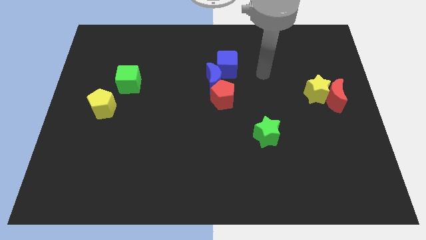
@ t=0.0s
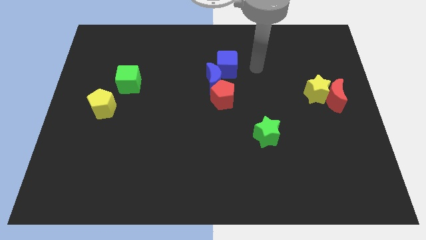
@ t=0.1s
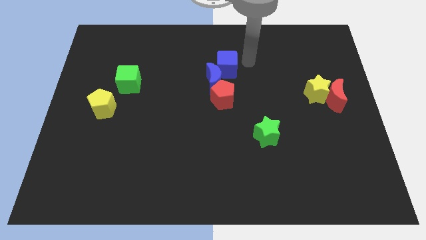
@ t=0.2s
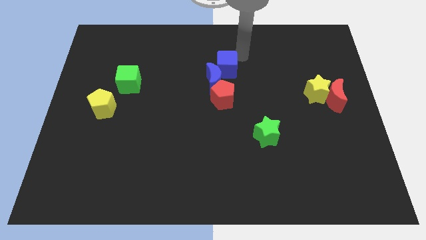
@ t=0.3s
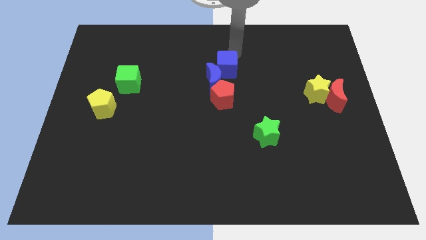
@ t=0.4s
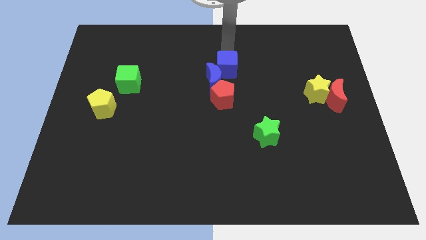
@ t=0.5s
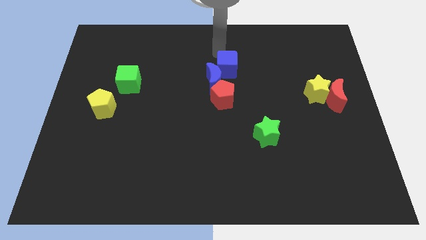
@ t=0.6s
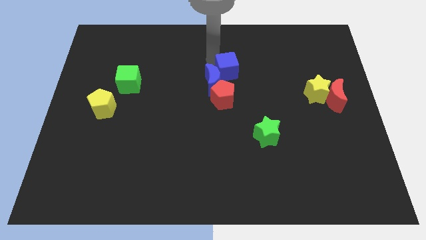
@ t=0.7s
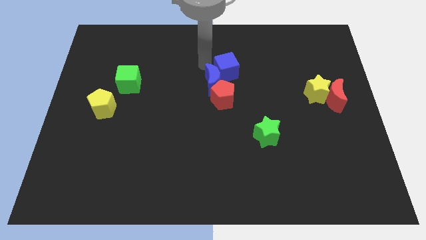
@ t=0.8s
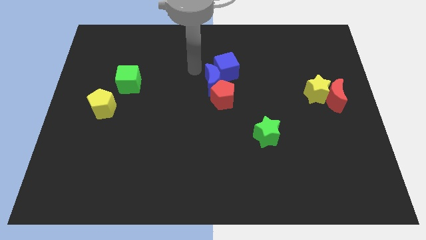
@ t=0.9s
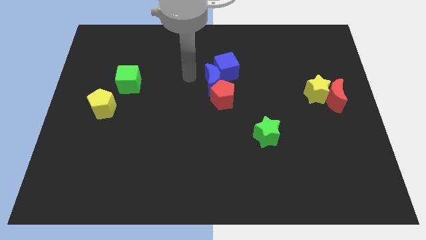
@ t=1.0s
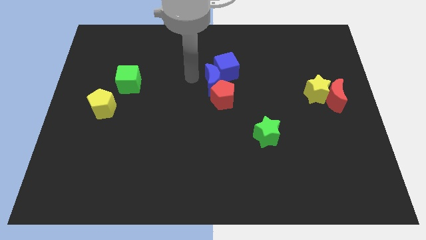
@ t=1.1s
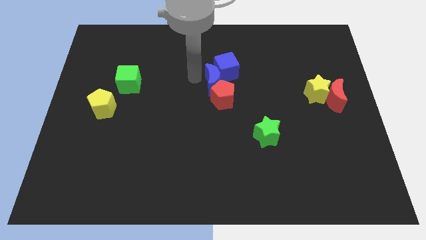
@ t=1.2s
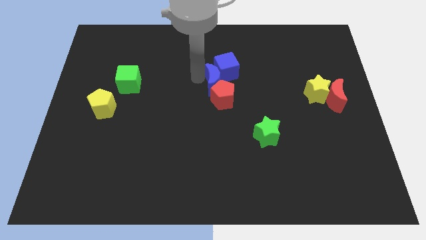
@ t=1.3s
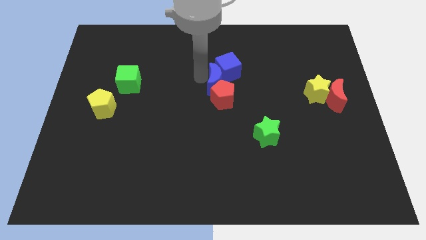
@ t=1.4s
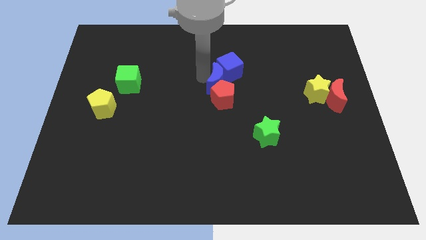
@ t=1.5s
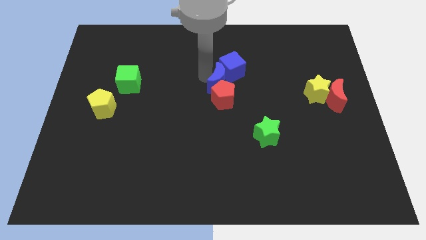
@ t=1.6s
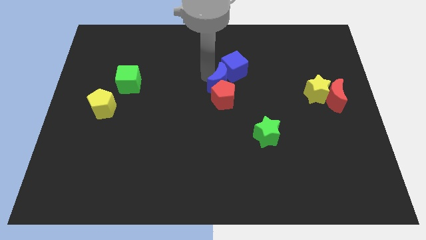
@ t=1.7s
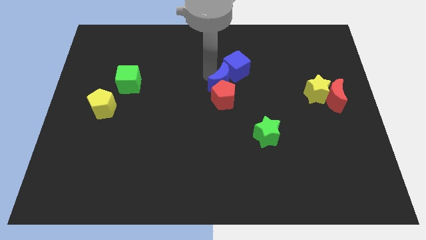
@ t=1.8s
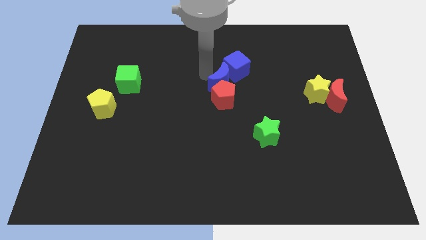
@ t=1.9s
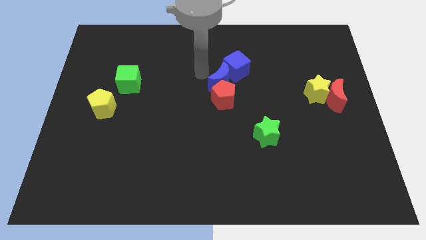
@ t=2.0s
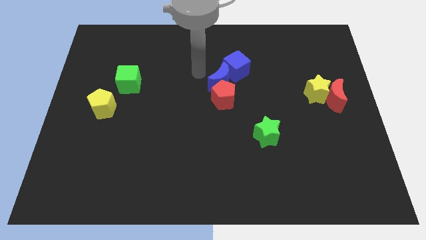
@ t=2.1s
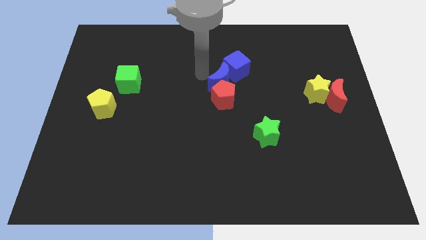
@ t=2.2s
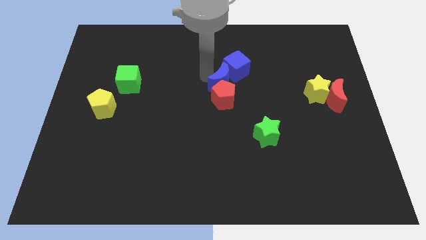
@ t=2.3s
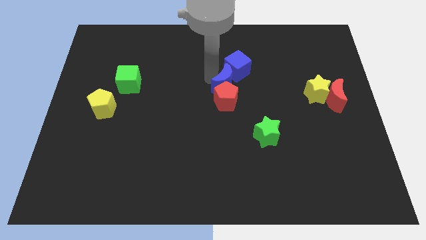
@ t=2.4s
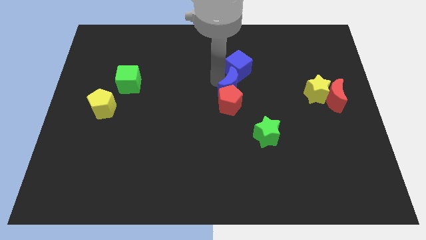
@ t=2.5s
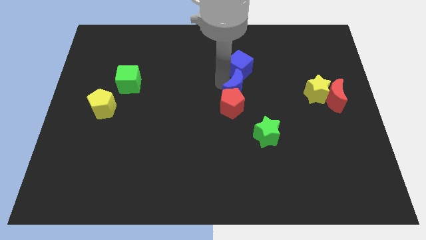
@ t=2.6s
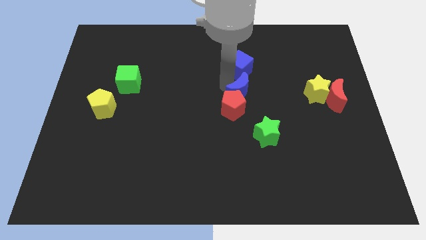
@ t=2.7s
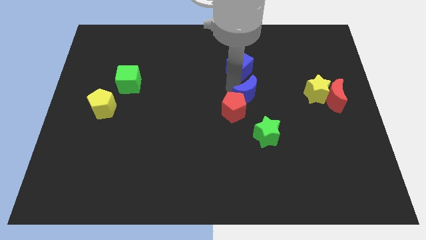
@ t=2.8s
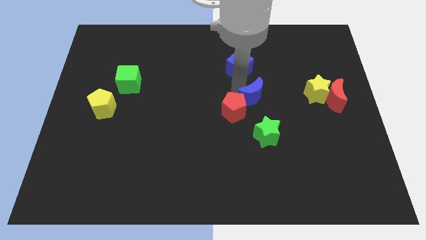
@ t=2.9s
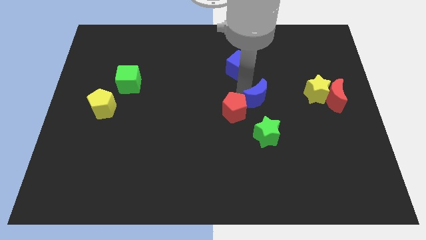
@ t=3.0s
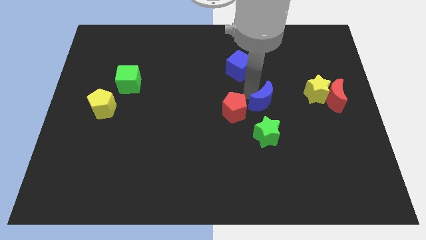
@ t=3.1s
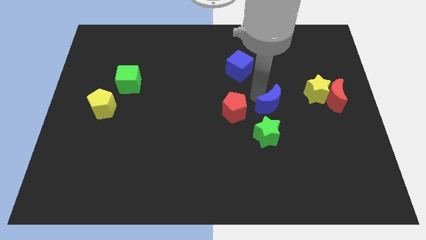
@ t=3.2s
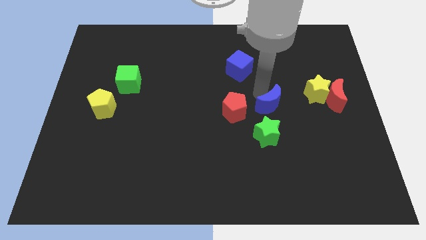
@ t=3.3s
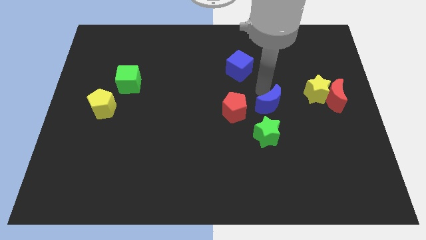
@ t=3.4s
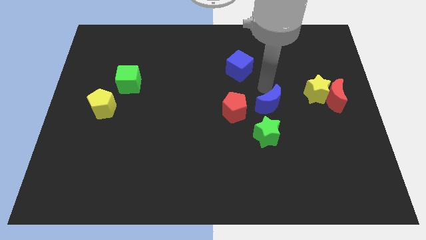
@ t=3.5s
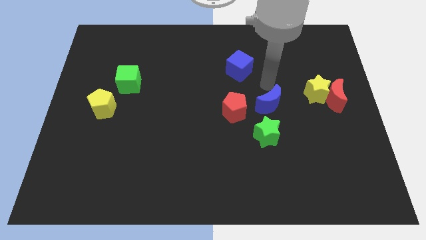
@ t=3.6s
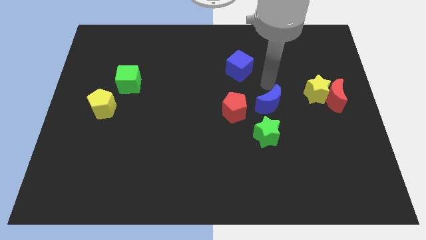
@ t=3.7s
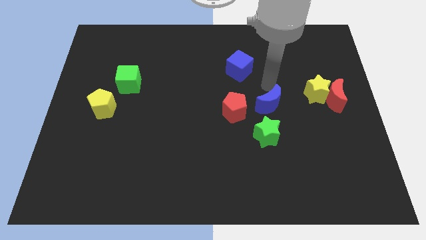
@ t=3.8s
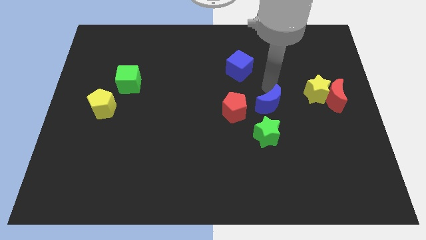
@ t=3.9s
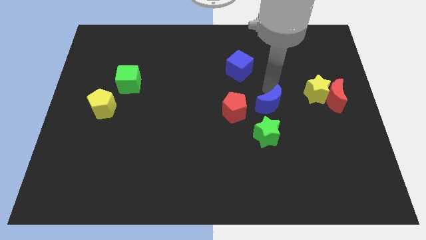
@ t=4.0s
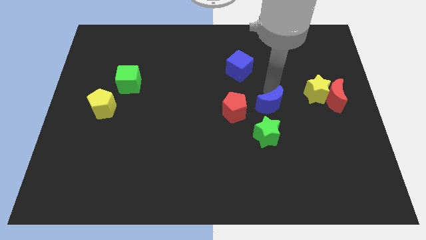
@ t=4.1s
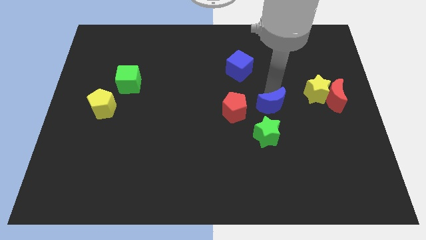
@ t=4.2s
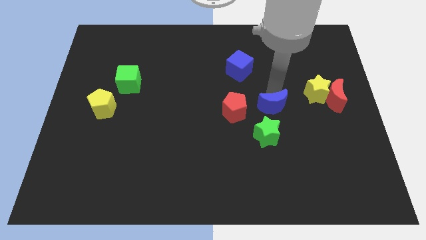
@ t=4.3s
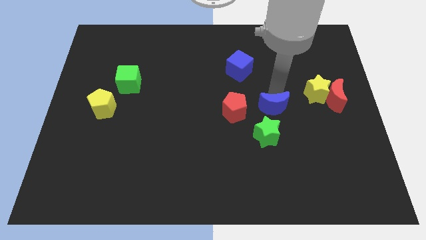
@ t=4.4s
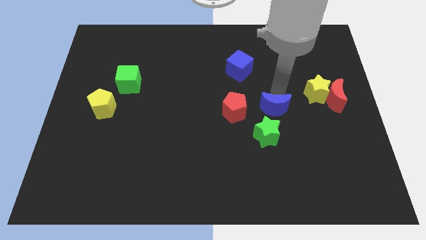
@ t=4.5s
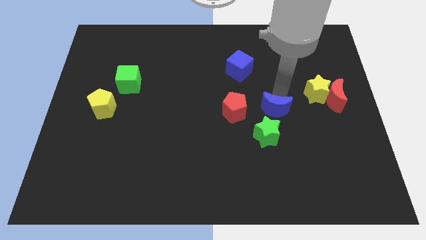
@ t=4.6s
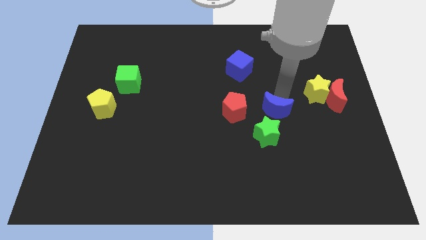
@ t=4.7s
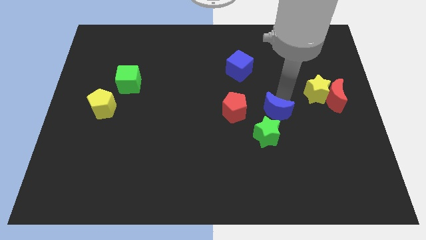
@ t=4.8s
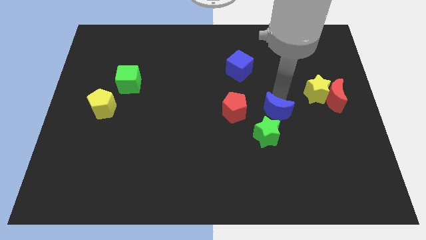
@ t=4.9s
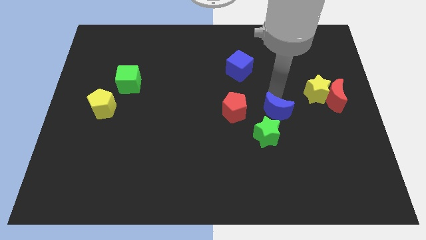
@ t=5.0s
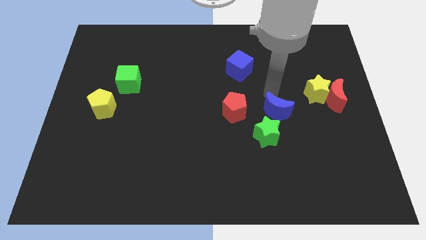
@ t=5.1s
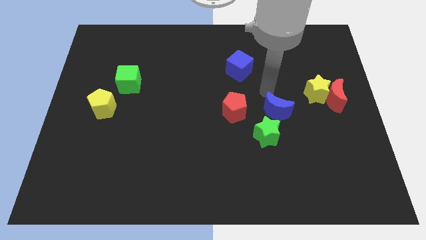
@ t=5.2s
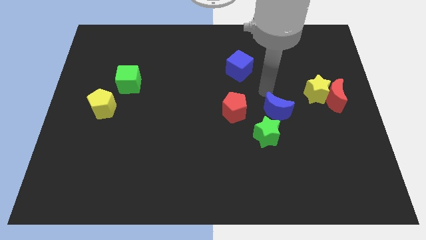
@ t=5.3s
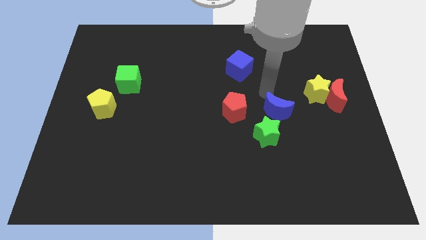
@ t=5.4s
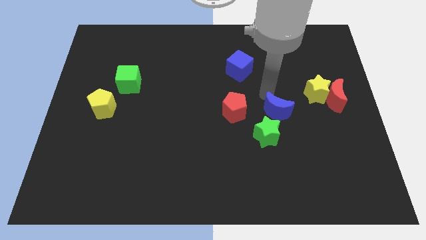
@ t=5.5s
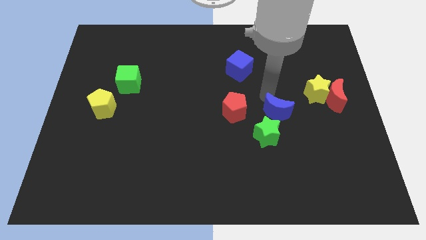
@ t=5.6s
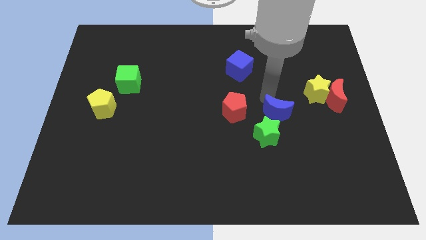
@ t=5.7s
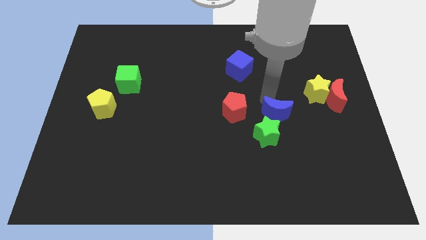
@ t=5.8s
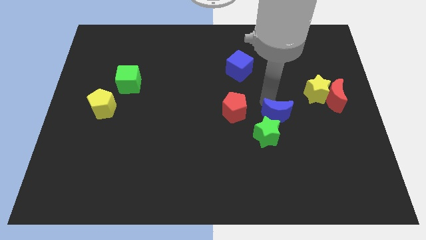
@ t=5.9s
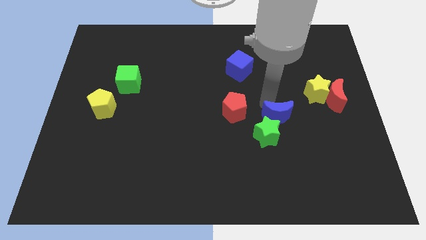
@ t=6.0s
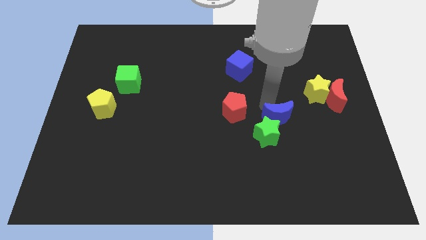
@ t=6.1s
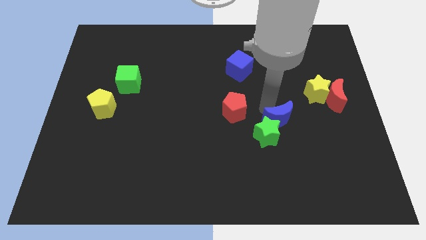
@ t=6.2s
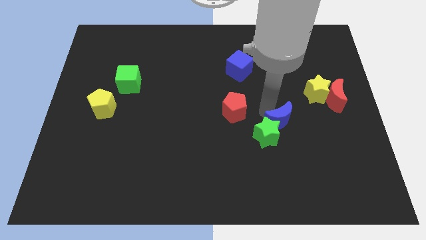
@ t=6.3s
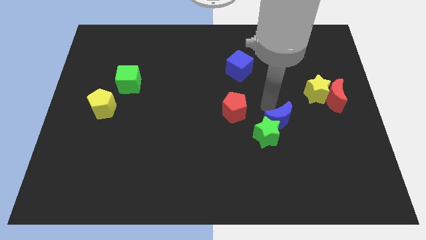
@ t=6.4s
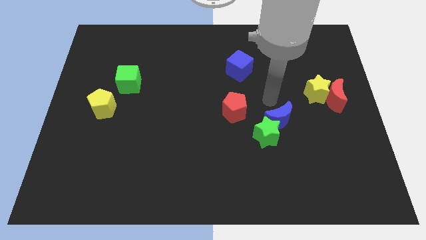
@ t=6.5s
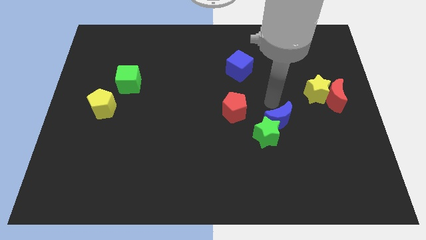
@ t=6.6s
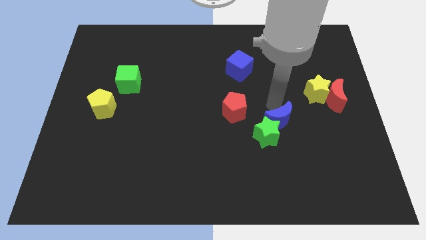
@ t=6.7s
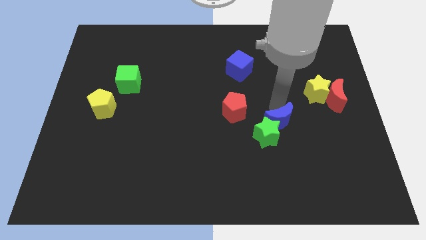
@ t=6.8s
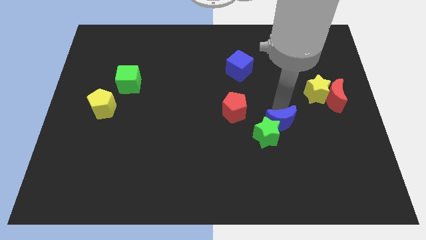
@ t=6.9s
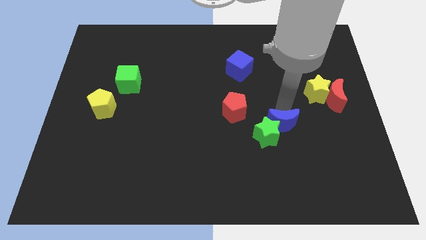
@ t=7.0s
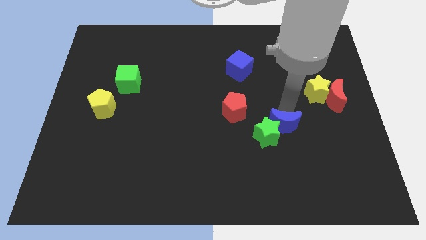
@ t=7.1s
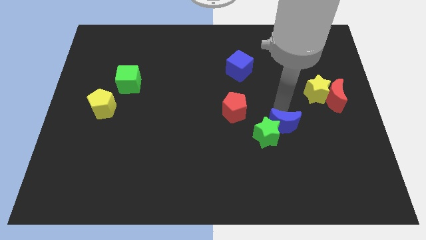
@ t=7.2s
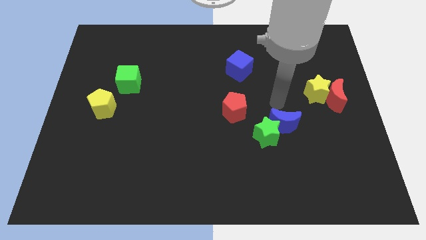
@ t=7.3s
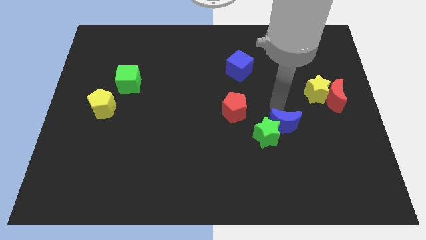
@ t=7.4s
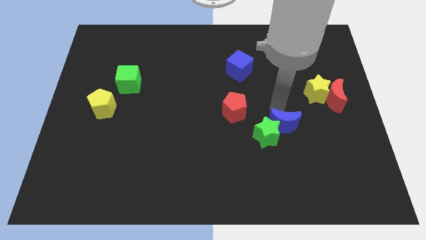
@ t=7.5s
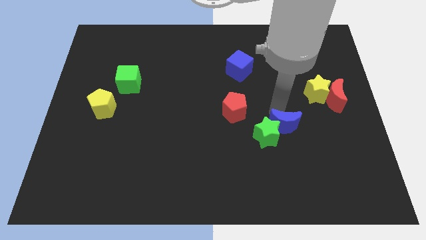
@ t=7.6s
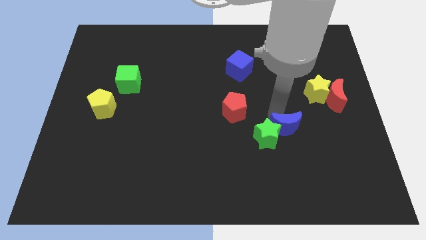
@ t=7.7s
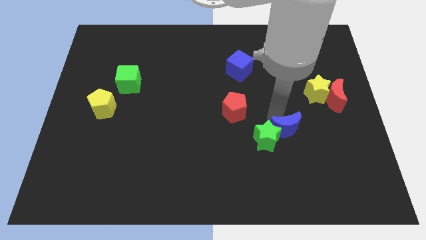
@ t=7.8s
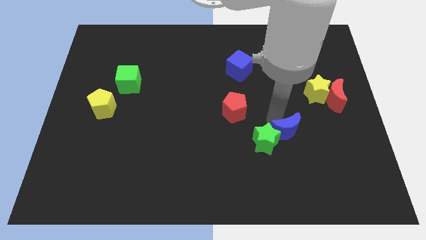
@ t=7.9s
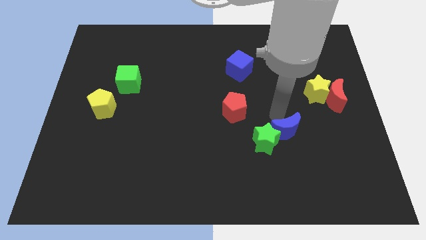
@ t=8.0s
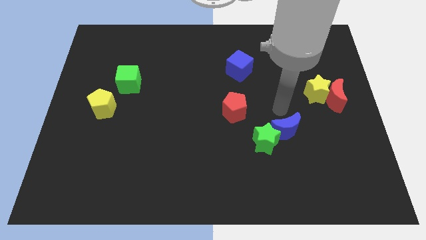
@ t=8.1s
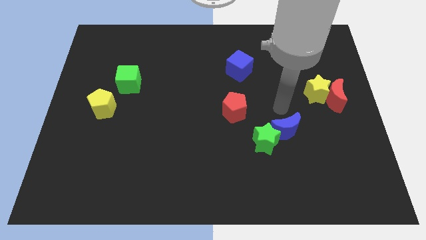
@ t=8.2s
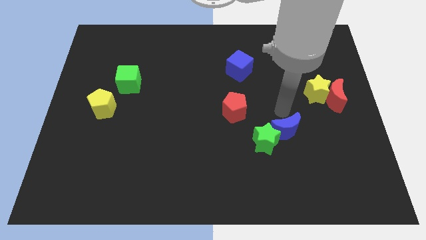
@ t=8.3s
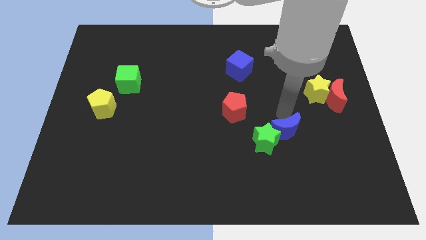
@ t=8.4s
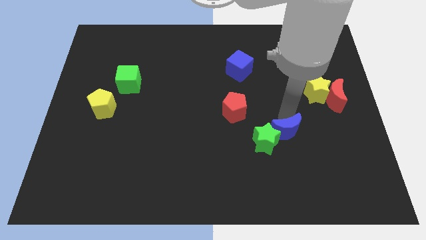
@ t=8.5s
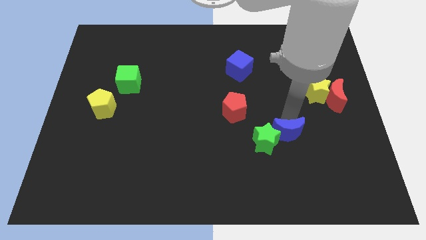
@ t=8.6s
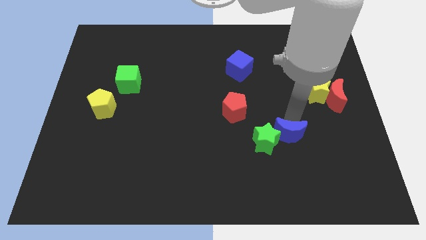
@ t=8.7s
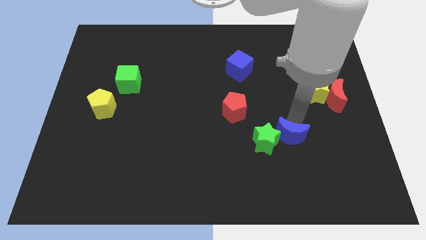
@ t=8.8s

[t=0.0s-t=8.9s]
push the blue moon to the bottom right side of the green star
